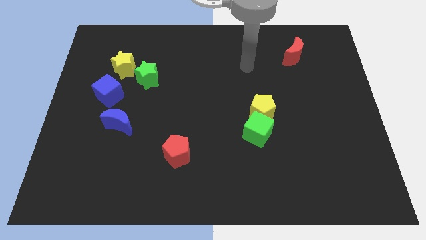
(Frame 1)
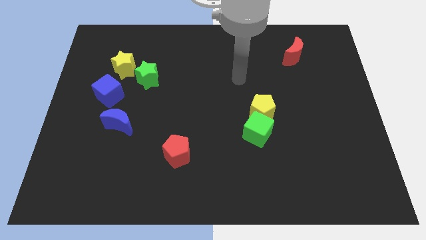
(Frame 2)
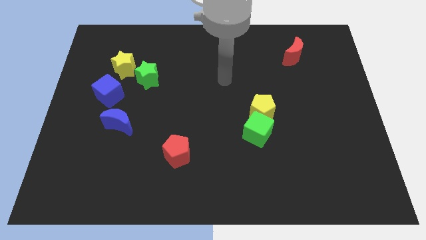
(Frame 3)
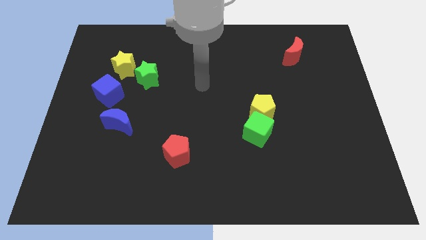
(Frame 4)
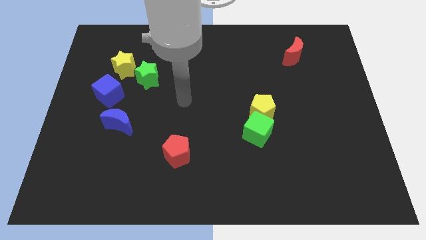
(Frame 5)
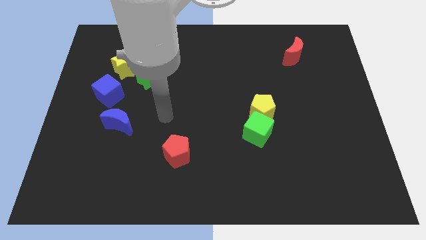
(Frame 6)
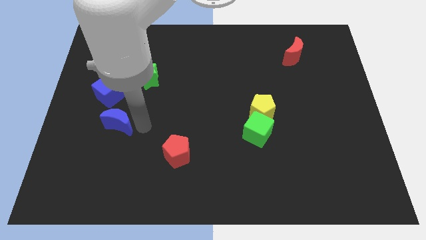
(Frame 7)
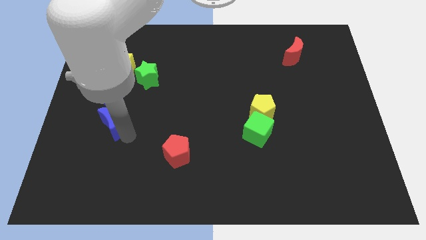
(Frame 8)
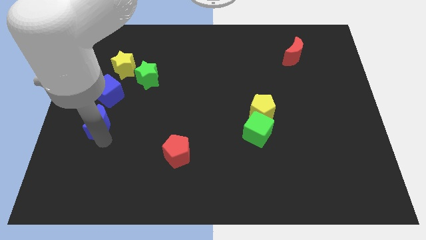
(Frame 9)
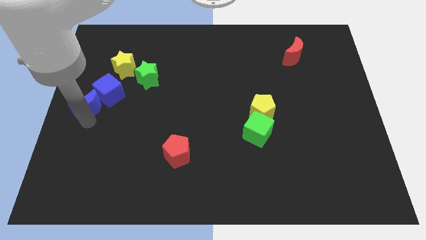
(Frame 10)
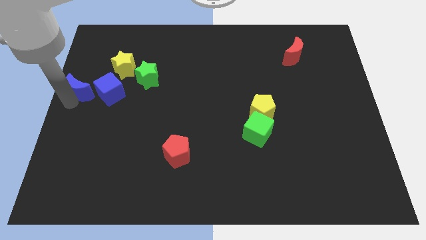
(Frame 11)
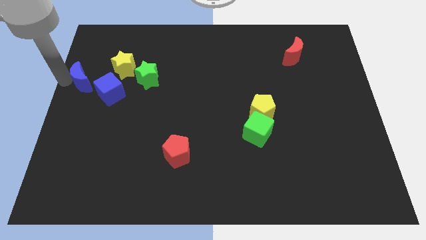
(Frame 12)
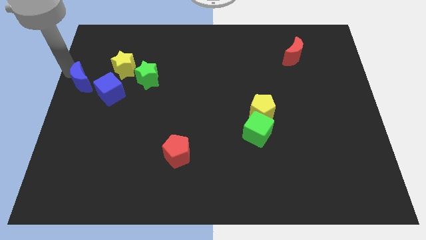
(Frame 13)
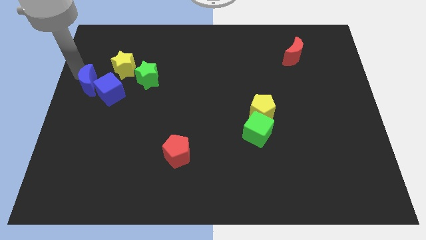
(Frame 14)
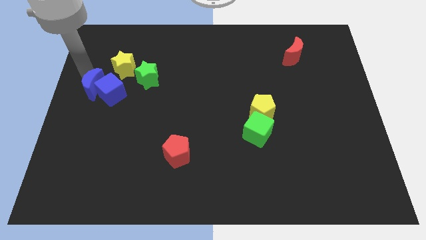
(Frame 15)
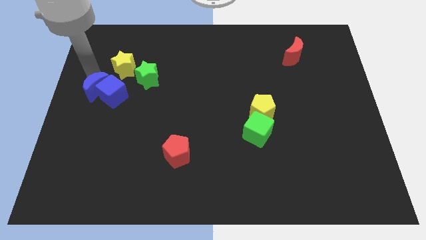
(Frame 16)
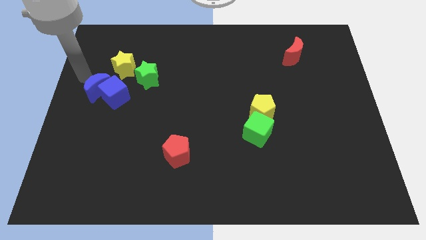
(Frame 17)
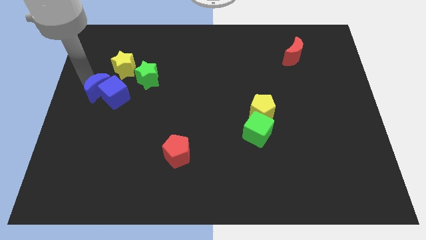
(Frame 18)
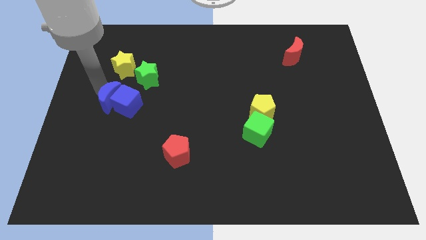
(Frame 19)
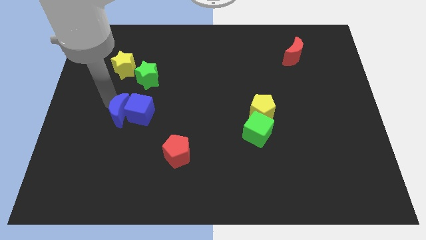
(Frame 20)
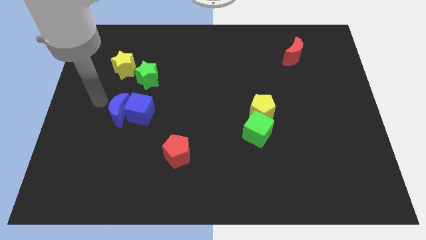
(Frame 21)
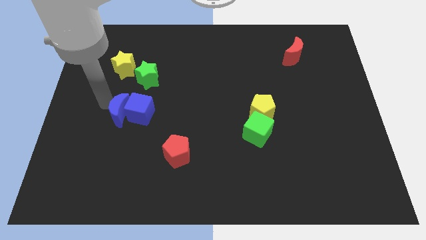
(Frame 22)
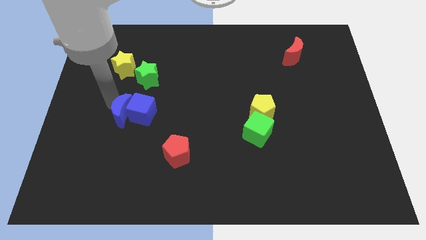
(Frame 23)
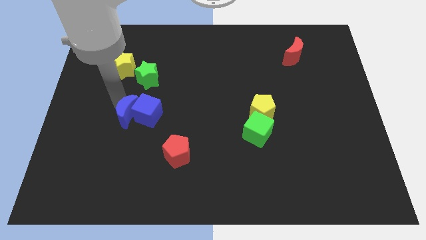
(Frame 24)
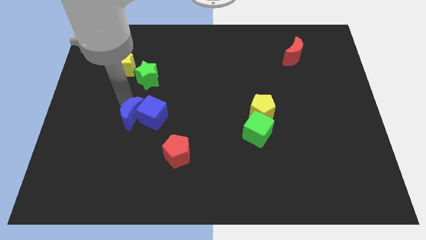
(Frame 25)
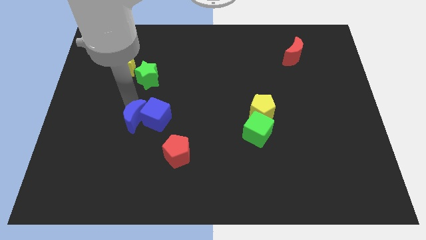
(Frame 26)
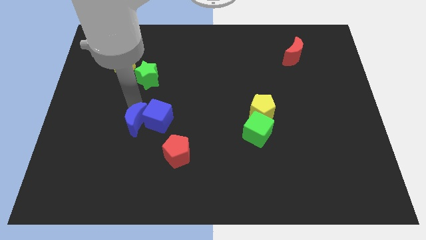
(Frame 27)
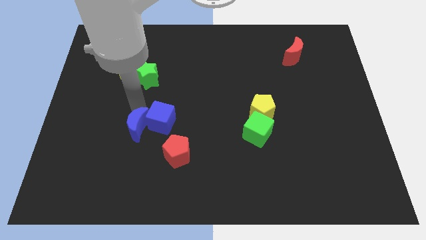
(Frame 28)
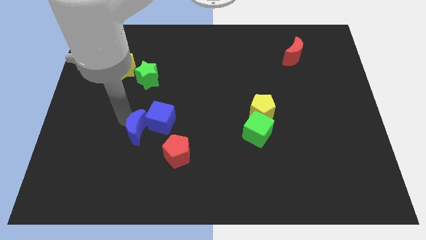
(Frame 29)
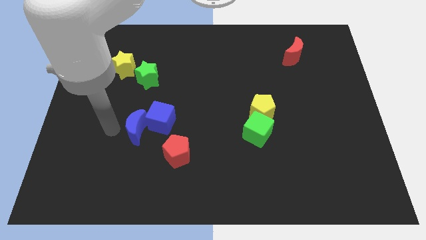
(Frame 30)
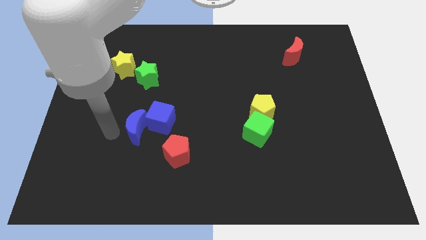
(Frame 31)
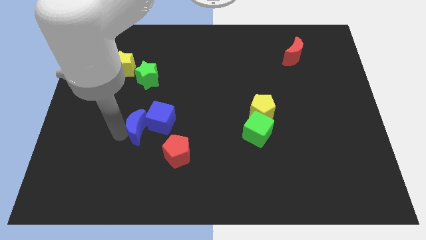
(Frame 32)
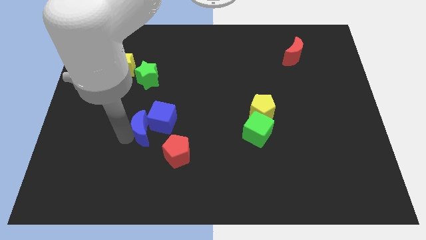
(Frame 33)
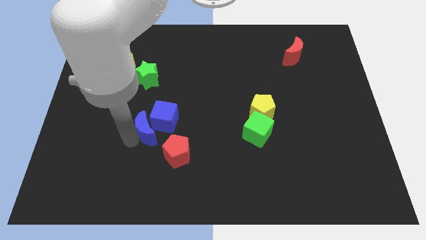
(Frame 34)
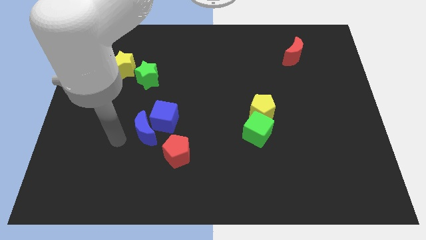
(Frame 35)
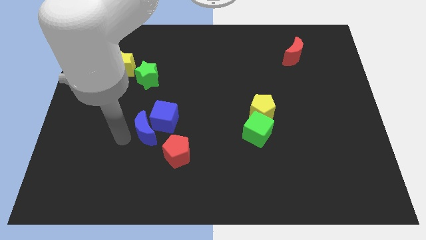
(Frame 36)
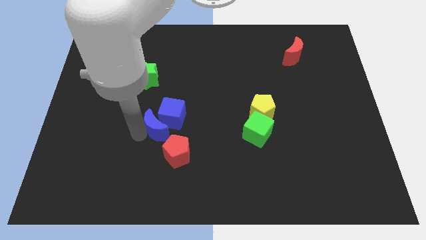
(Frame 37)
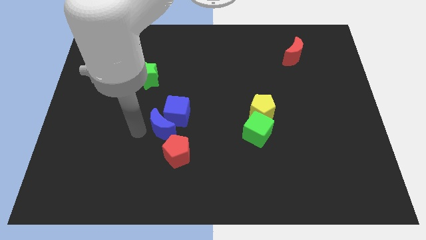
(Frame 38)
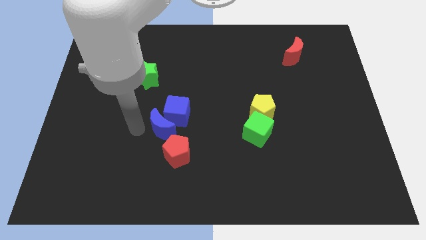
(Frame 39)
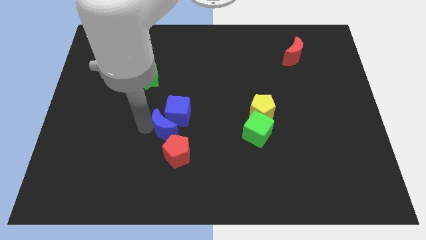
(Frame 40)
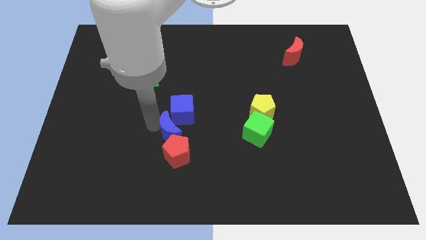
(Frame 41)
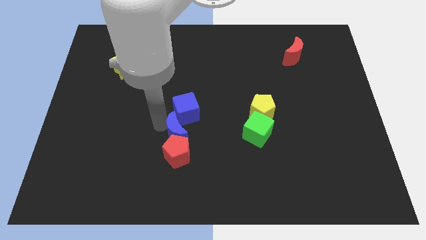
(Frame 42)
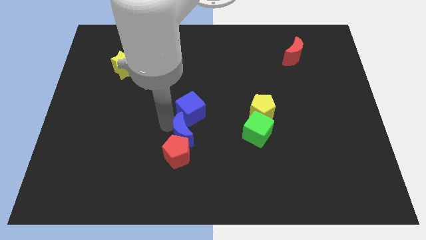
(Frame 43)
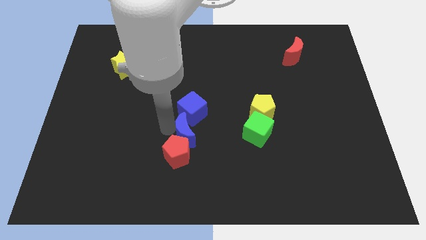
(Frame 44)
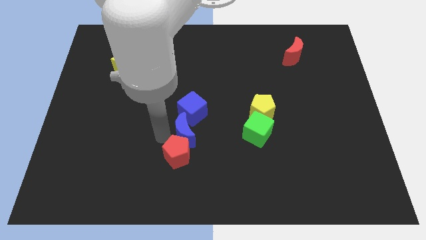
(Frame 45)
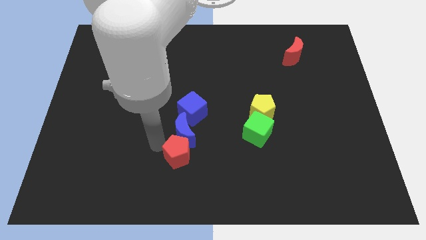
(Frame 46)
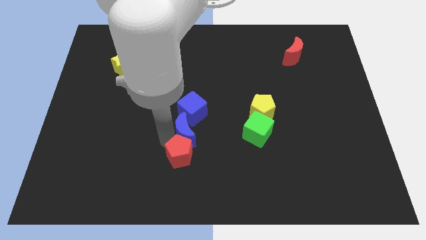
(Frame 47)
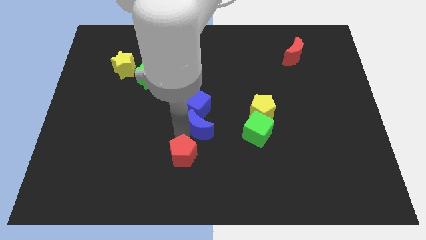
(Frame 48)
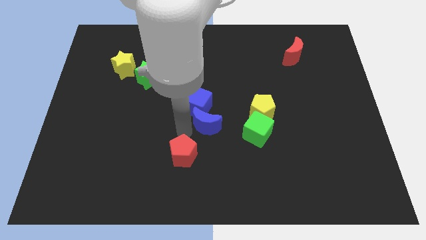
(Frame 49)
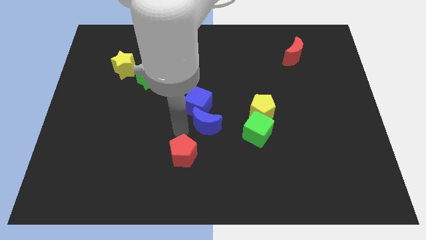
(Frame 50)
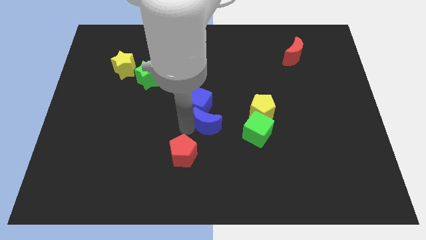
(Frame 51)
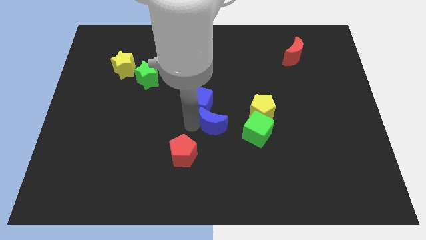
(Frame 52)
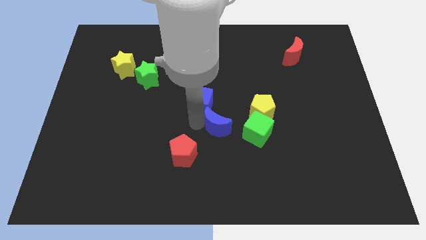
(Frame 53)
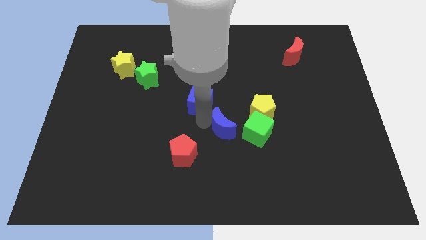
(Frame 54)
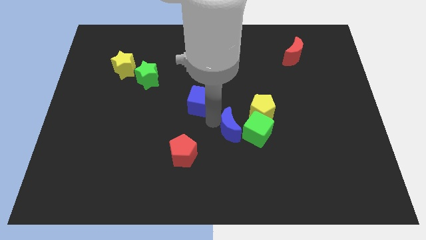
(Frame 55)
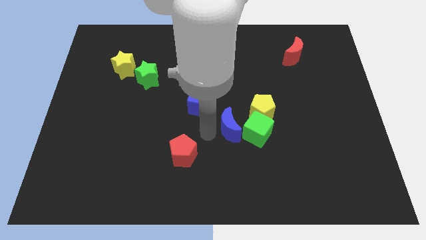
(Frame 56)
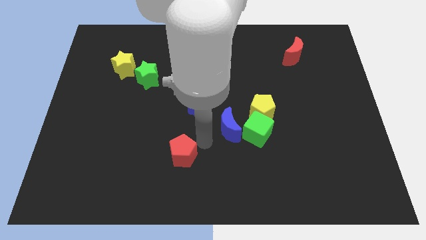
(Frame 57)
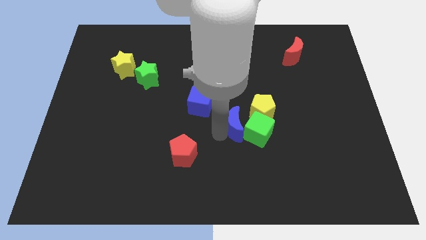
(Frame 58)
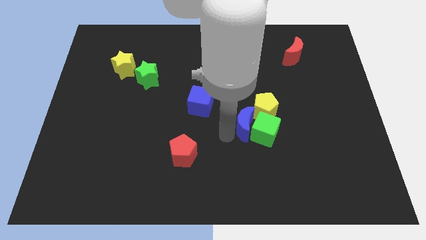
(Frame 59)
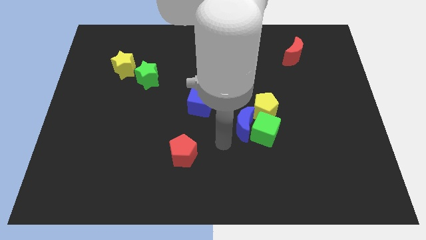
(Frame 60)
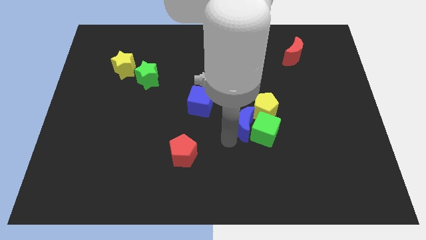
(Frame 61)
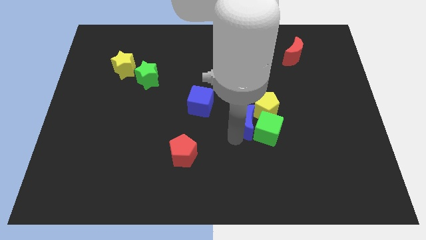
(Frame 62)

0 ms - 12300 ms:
slide the blue moon close to the yellow pentagon

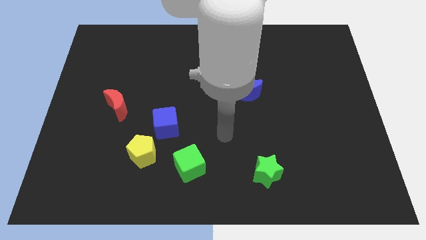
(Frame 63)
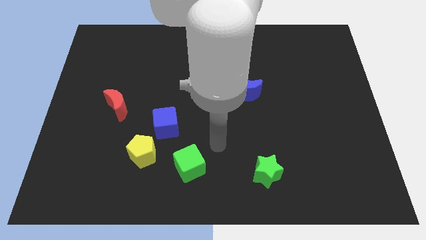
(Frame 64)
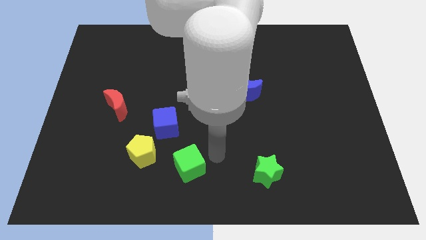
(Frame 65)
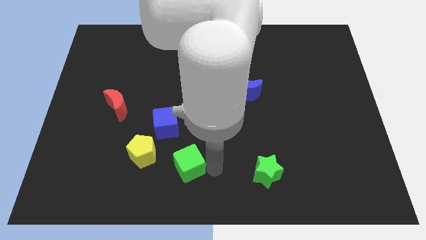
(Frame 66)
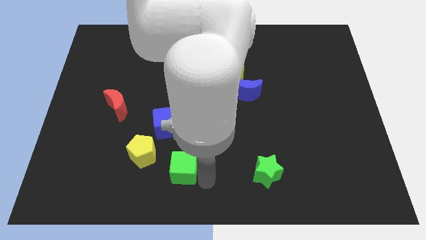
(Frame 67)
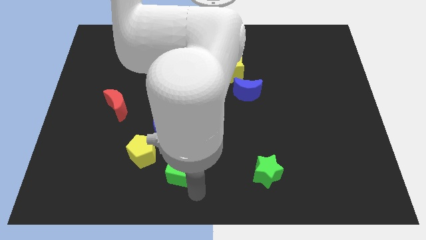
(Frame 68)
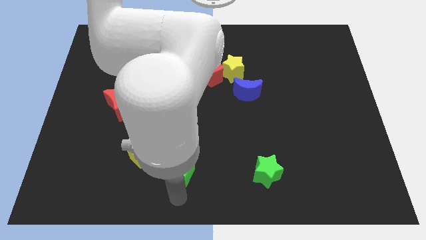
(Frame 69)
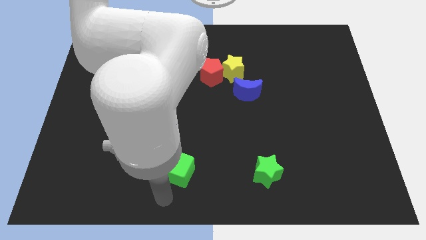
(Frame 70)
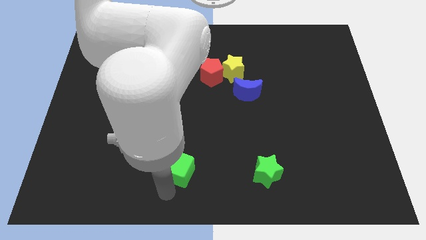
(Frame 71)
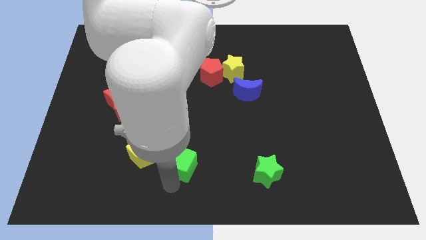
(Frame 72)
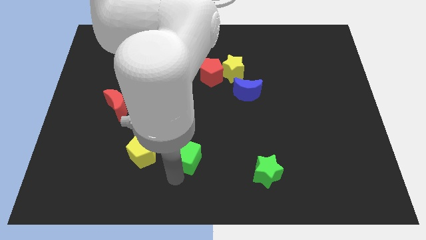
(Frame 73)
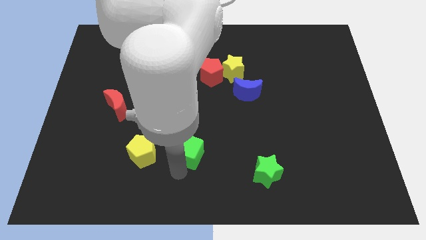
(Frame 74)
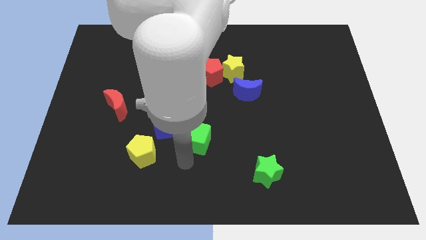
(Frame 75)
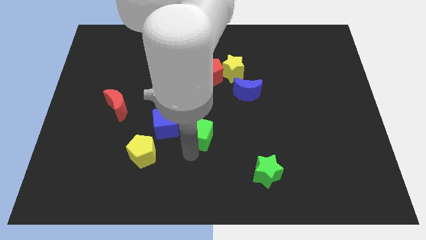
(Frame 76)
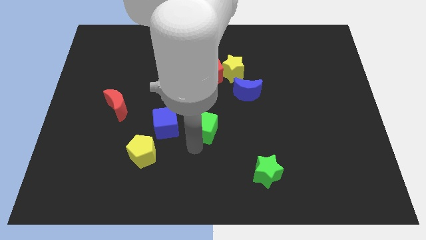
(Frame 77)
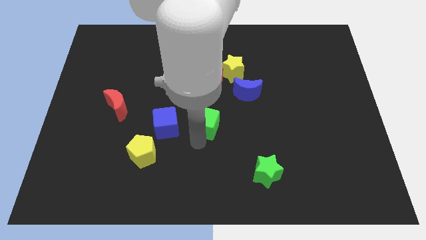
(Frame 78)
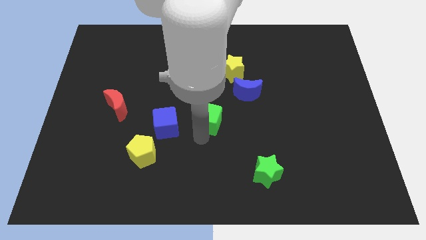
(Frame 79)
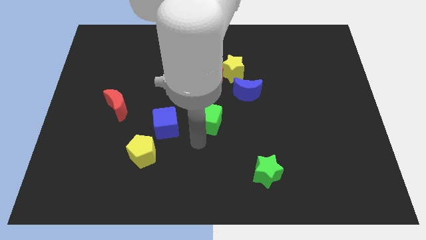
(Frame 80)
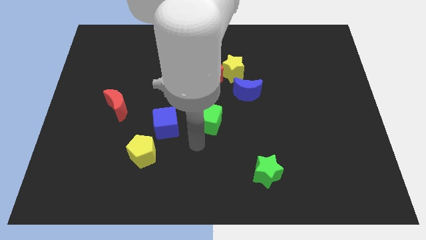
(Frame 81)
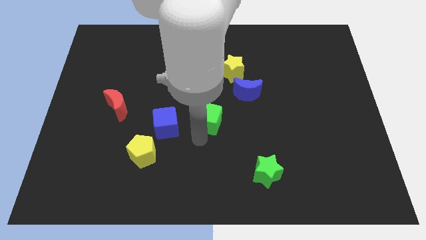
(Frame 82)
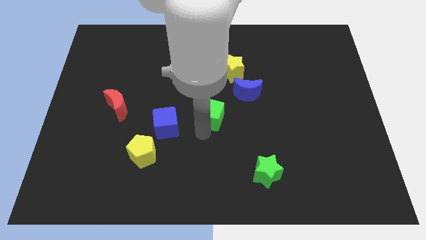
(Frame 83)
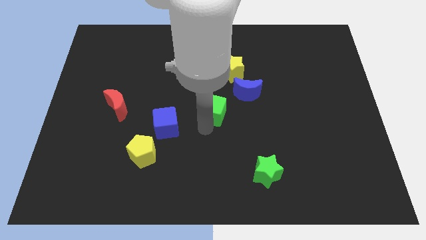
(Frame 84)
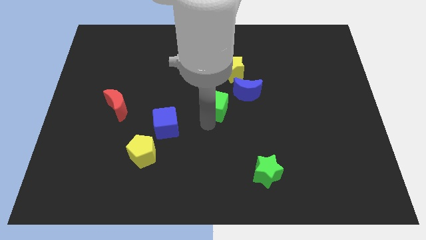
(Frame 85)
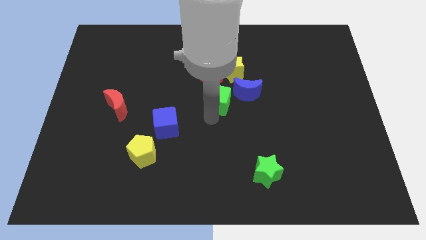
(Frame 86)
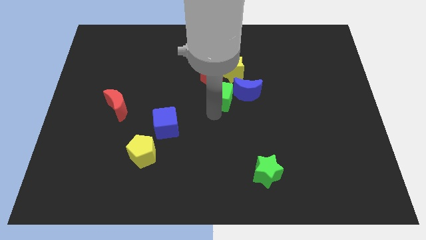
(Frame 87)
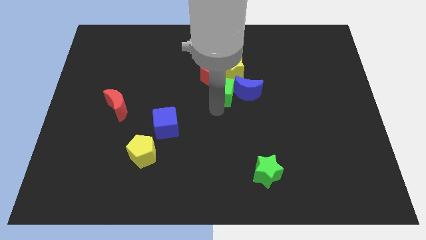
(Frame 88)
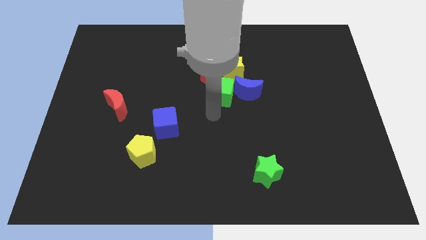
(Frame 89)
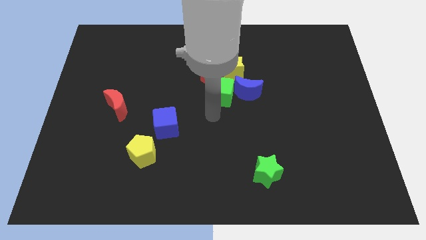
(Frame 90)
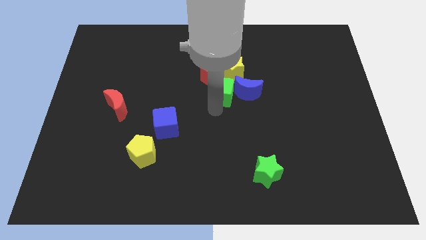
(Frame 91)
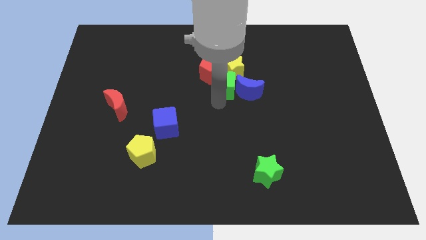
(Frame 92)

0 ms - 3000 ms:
slide the green cube to the yellow star
